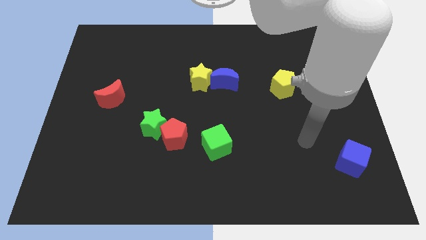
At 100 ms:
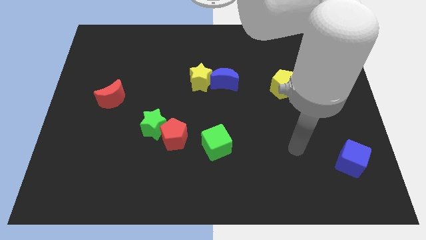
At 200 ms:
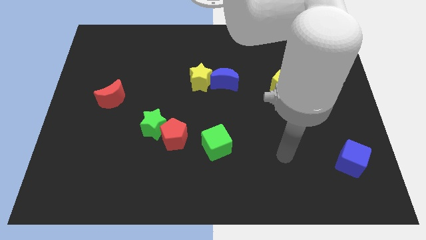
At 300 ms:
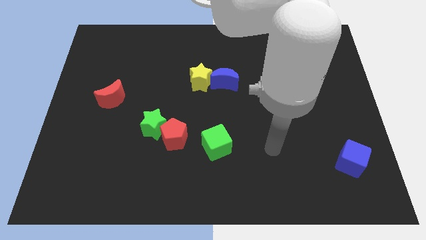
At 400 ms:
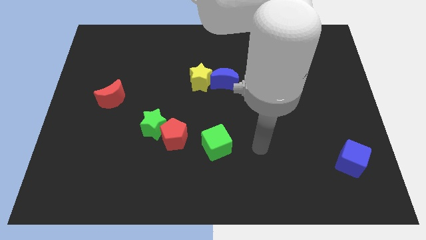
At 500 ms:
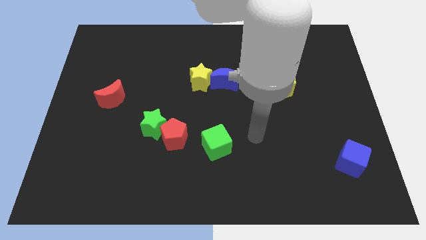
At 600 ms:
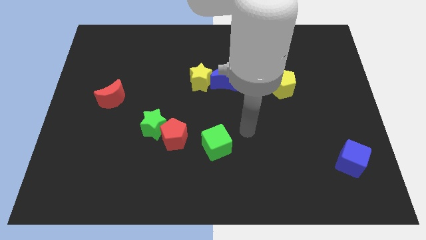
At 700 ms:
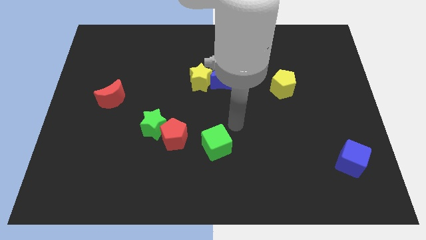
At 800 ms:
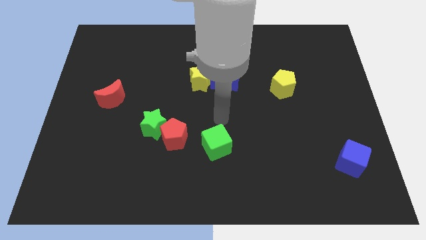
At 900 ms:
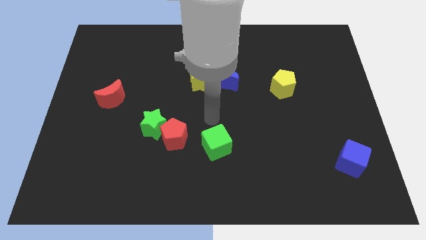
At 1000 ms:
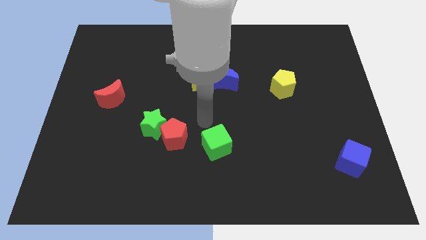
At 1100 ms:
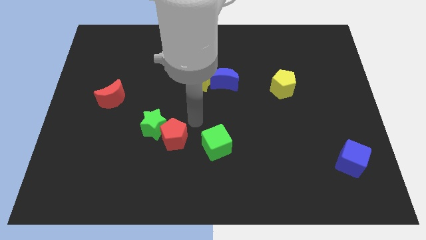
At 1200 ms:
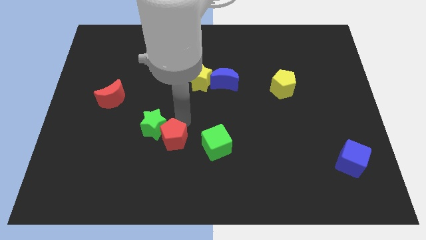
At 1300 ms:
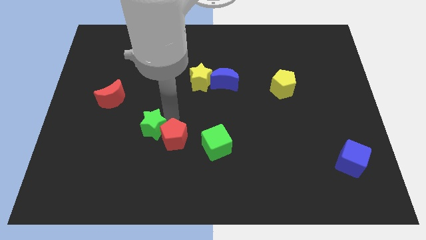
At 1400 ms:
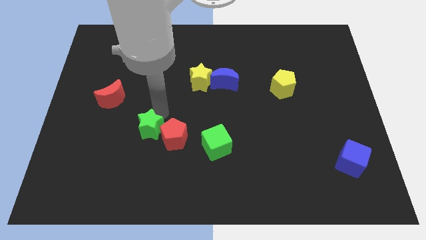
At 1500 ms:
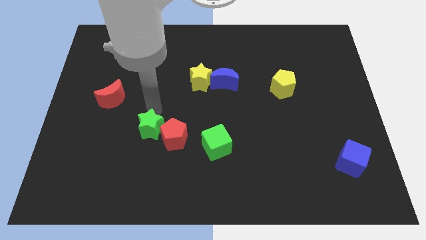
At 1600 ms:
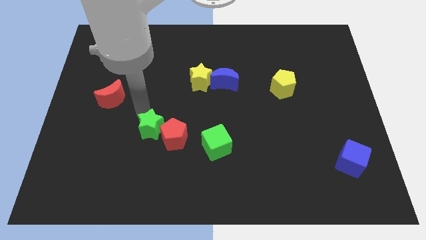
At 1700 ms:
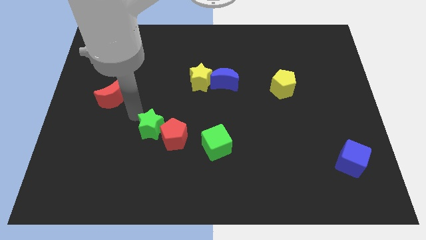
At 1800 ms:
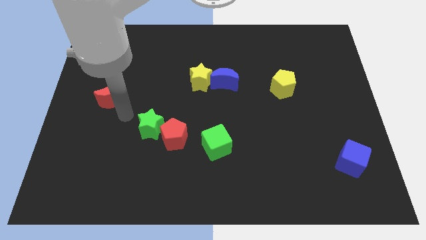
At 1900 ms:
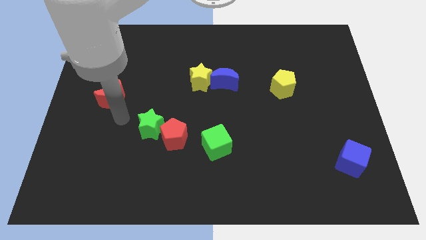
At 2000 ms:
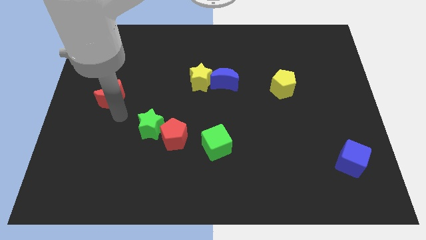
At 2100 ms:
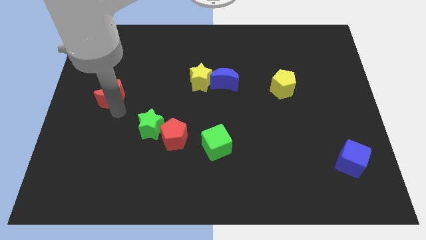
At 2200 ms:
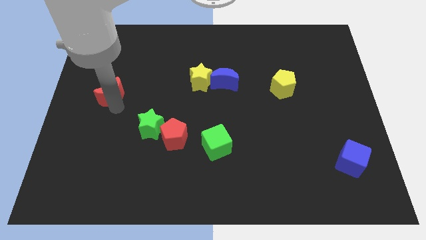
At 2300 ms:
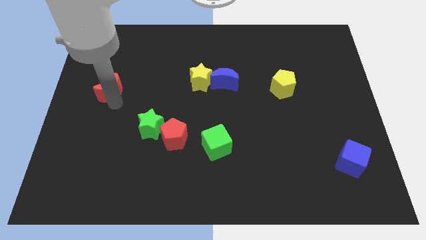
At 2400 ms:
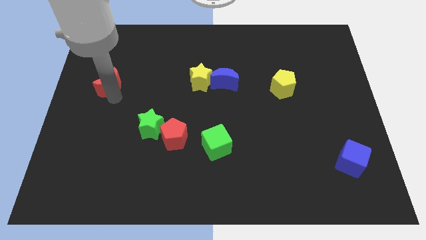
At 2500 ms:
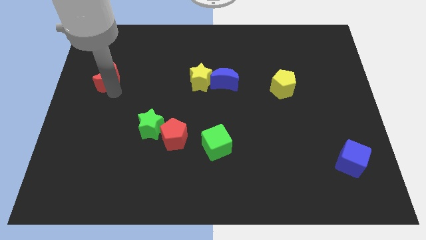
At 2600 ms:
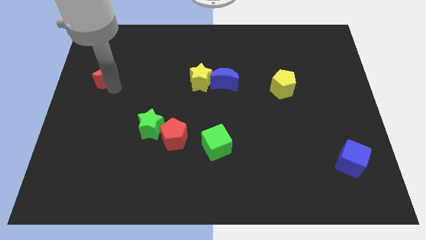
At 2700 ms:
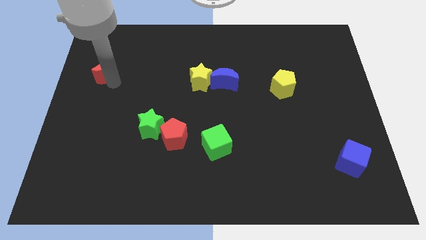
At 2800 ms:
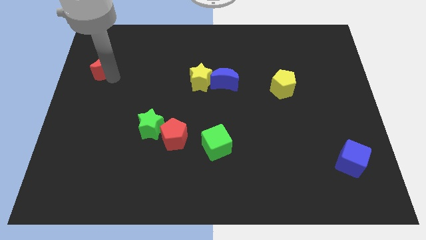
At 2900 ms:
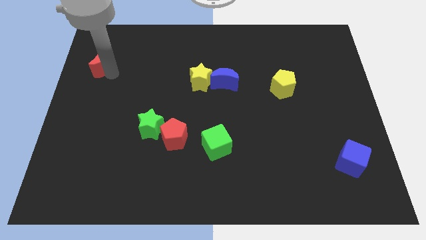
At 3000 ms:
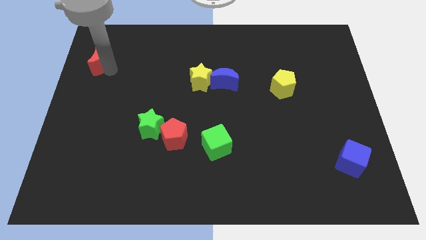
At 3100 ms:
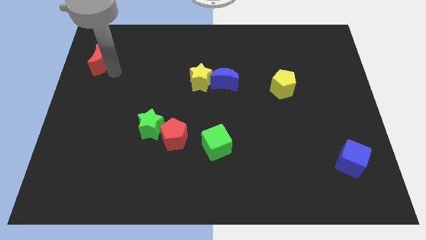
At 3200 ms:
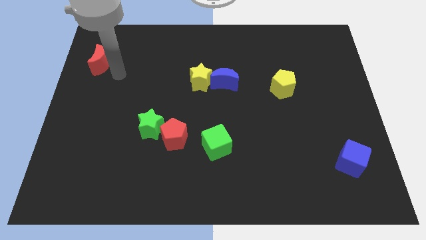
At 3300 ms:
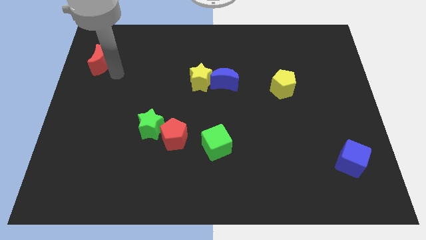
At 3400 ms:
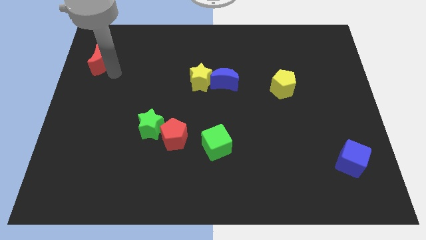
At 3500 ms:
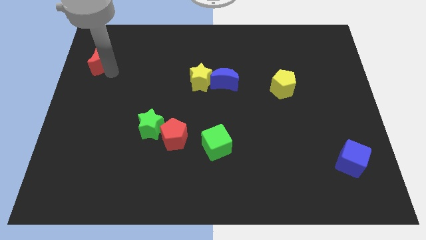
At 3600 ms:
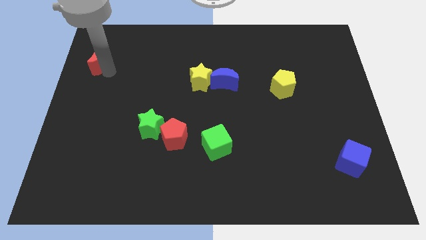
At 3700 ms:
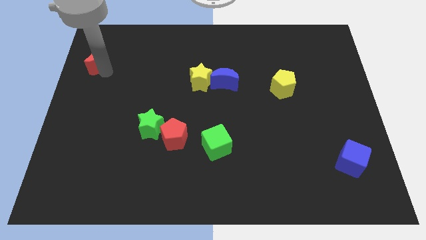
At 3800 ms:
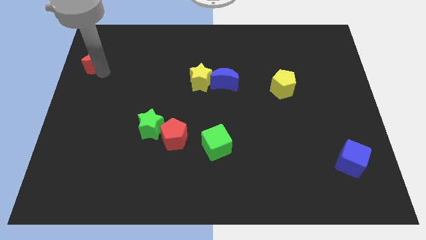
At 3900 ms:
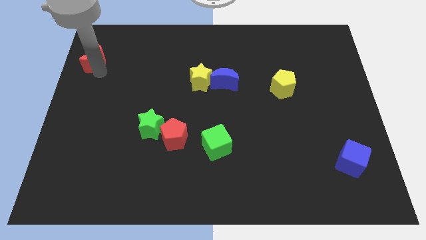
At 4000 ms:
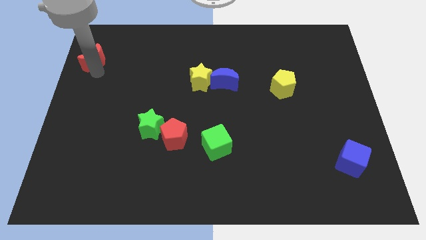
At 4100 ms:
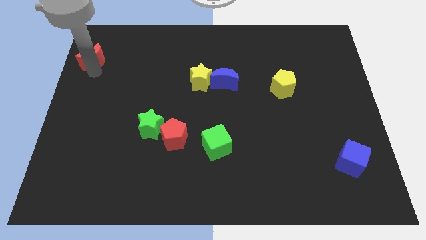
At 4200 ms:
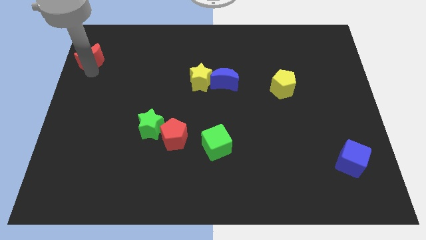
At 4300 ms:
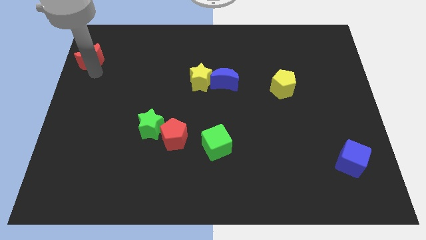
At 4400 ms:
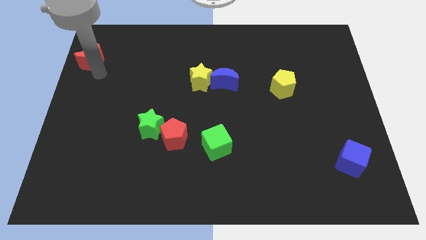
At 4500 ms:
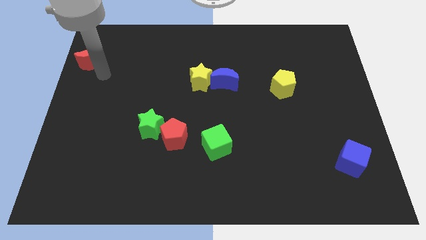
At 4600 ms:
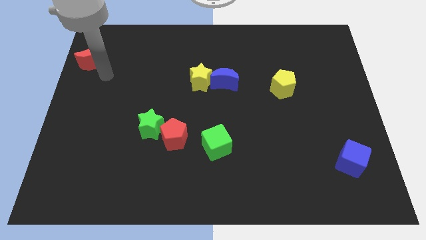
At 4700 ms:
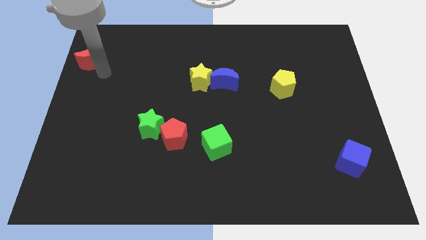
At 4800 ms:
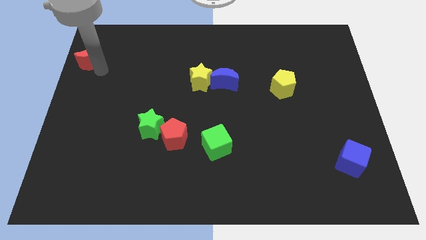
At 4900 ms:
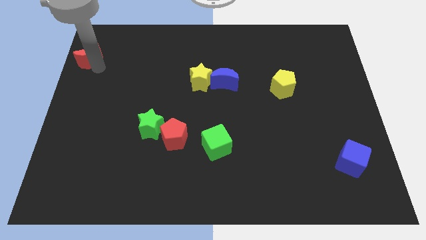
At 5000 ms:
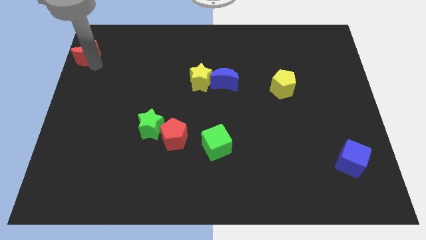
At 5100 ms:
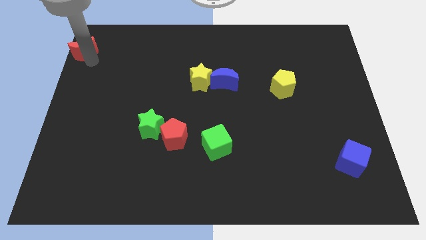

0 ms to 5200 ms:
push the red moon to the top left of the board

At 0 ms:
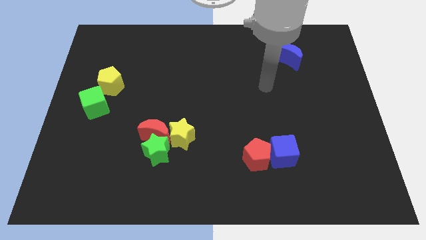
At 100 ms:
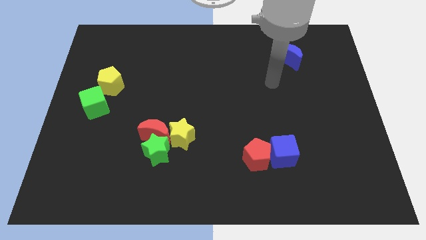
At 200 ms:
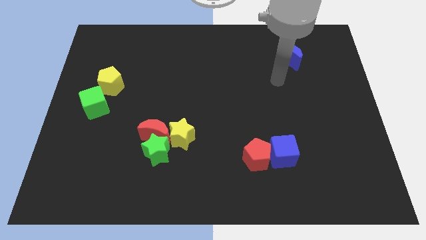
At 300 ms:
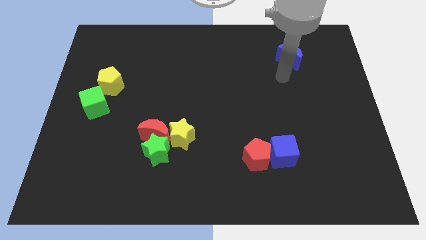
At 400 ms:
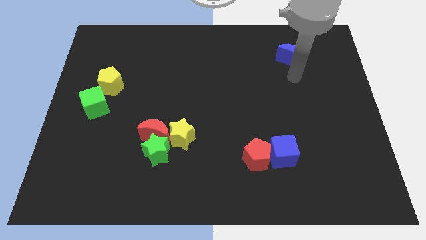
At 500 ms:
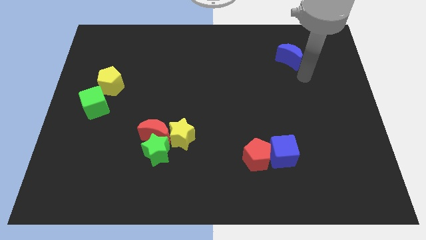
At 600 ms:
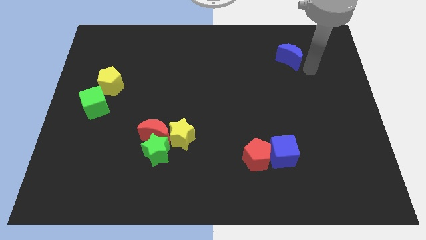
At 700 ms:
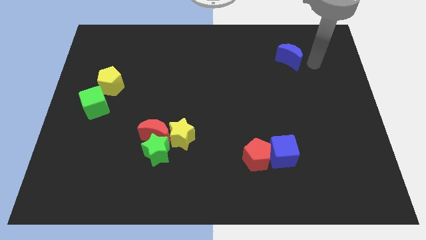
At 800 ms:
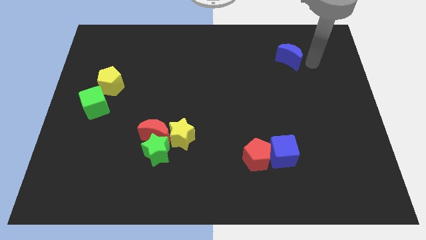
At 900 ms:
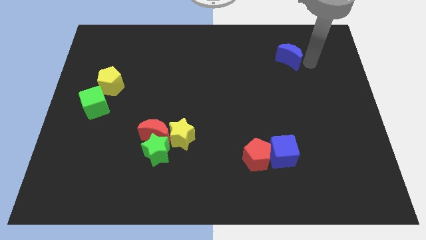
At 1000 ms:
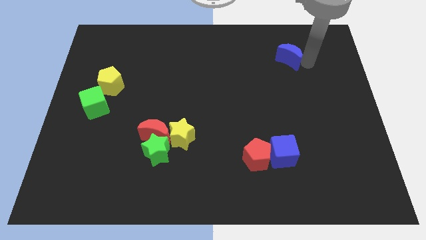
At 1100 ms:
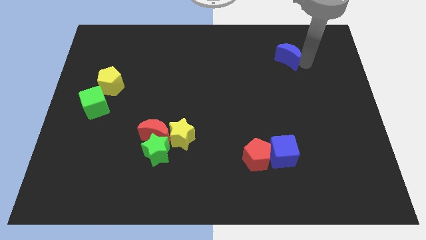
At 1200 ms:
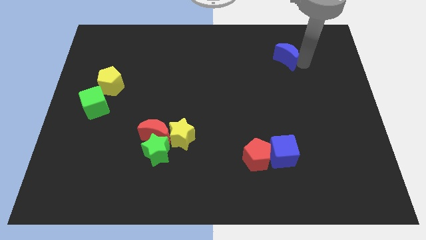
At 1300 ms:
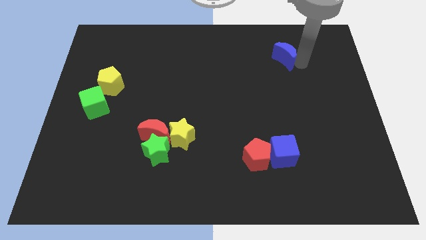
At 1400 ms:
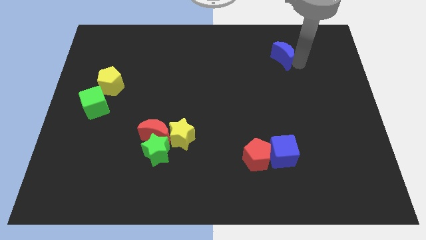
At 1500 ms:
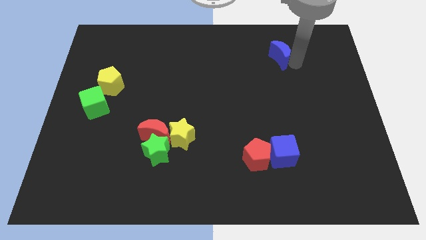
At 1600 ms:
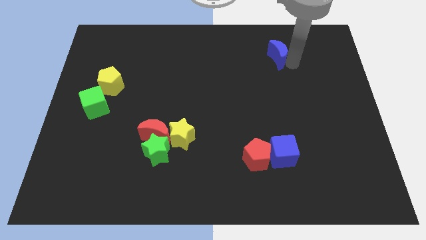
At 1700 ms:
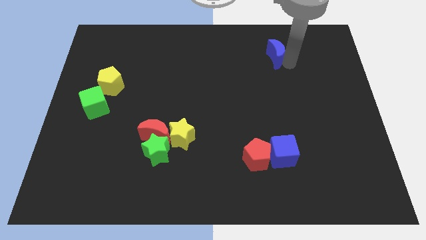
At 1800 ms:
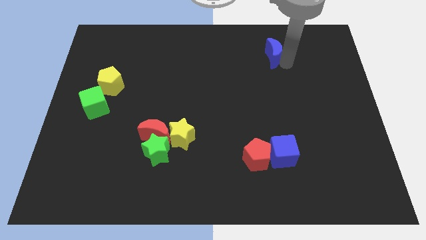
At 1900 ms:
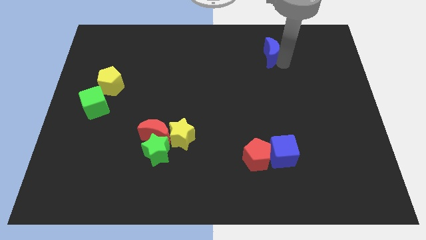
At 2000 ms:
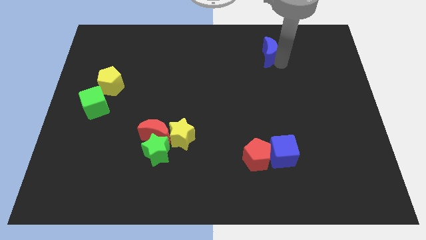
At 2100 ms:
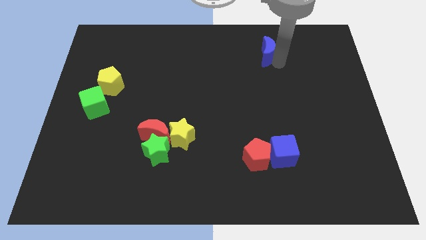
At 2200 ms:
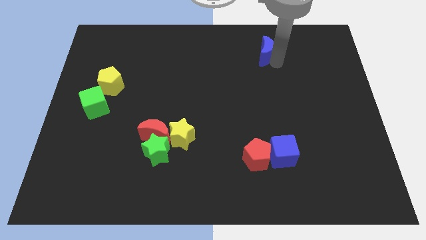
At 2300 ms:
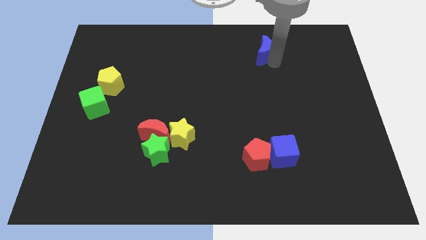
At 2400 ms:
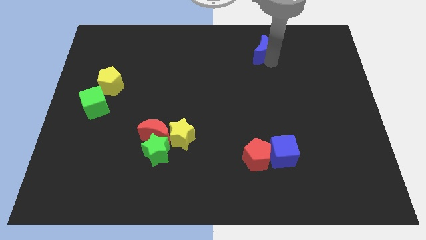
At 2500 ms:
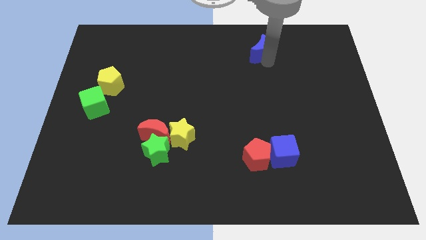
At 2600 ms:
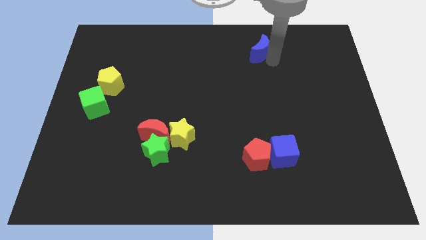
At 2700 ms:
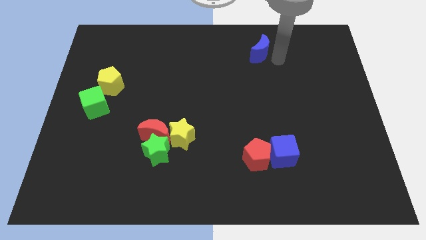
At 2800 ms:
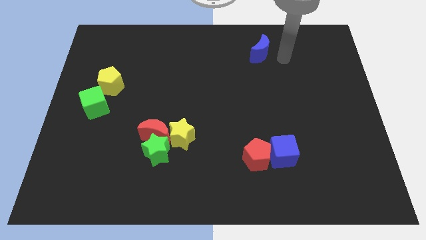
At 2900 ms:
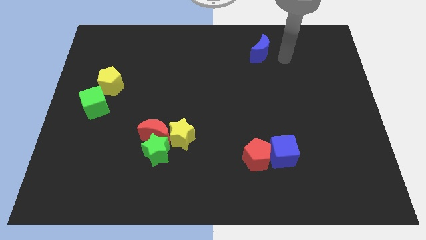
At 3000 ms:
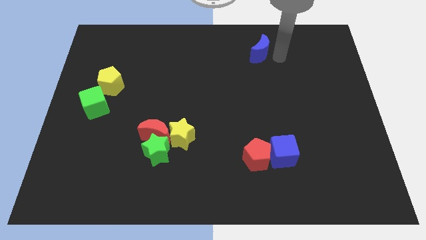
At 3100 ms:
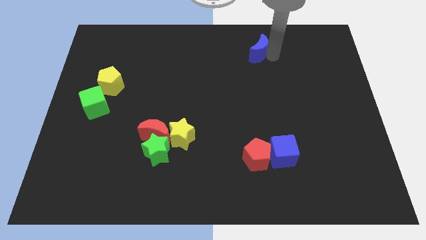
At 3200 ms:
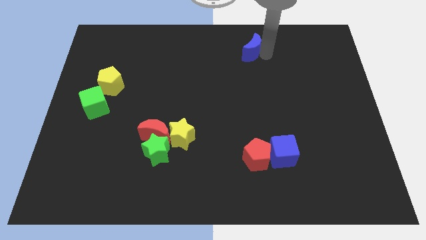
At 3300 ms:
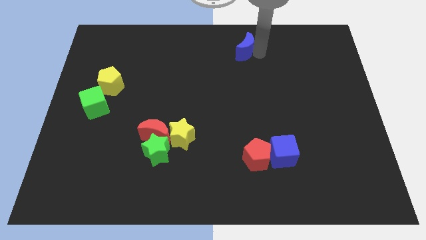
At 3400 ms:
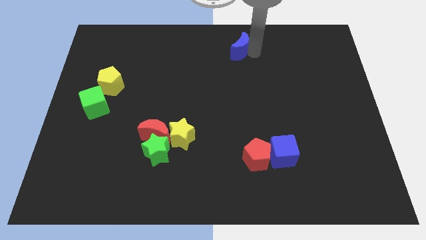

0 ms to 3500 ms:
put the blue moon to the towards your base
